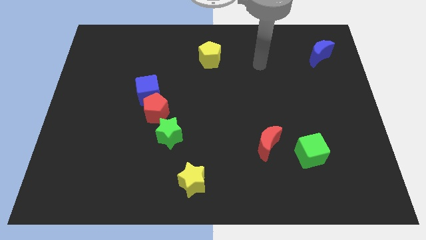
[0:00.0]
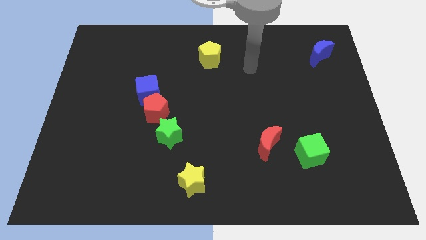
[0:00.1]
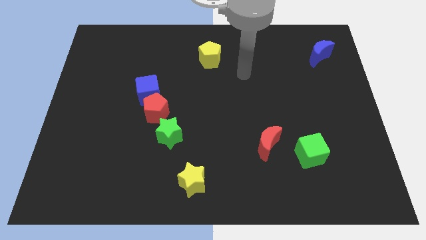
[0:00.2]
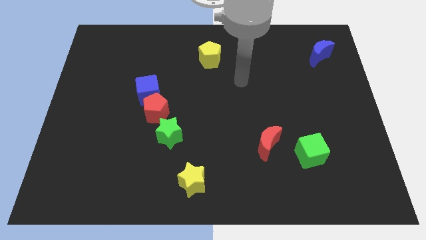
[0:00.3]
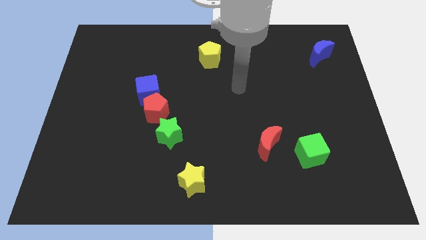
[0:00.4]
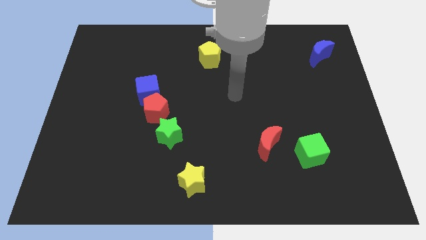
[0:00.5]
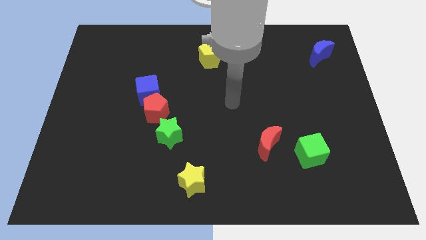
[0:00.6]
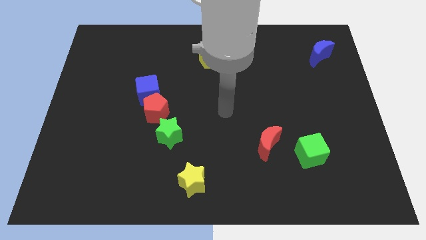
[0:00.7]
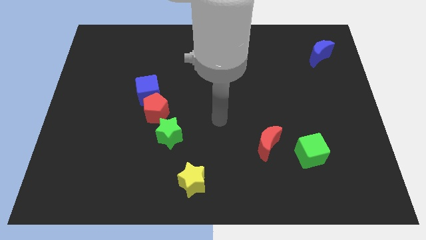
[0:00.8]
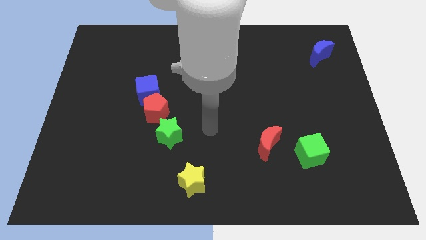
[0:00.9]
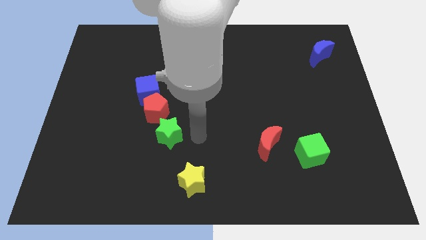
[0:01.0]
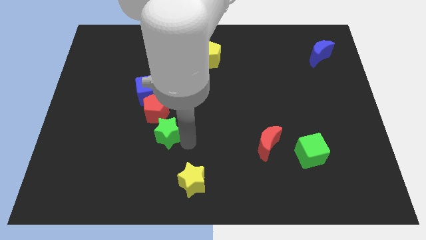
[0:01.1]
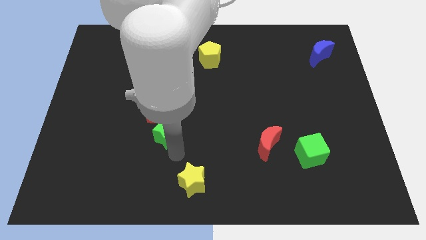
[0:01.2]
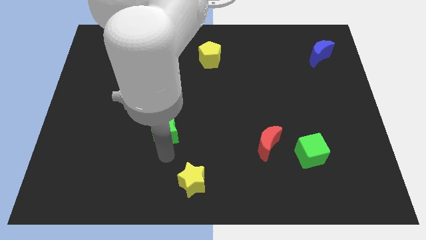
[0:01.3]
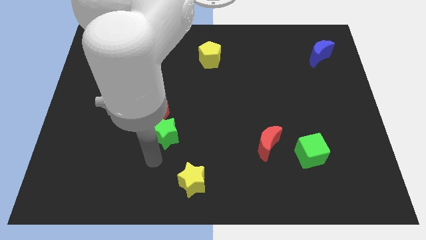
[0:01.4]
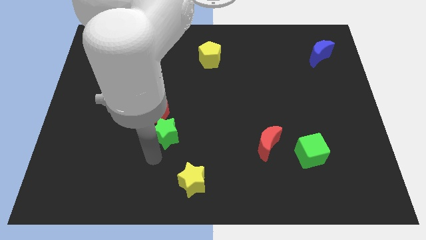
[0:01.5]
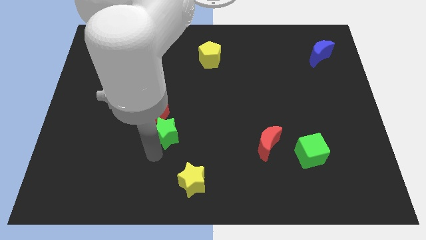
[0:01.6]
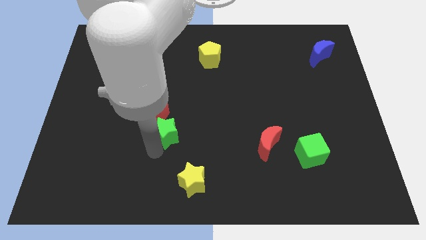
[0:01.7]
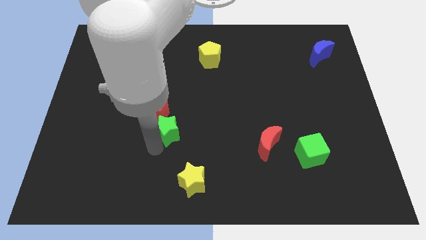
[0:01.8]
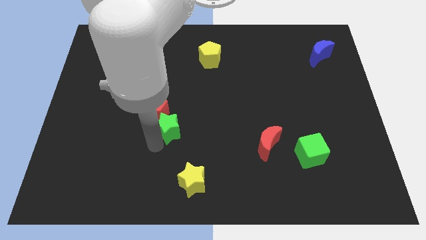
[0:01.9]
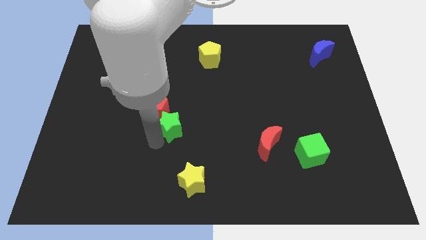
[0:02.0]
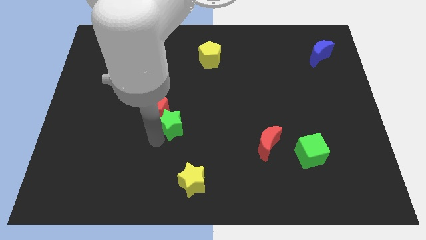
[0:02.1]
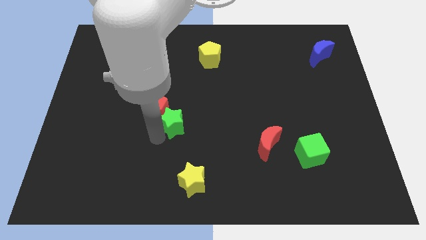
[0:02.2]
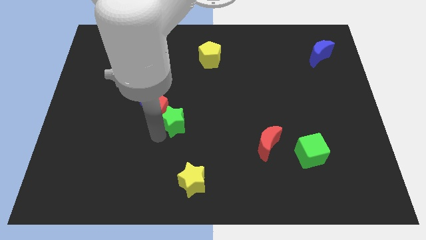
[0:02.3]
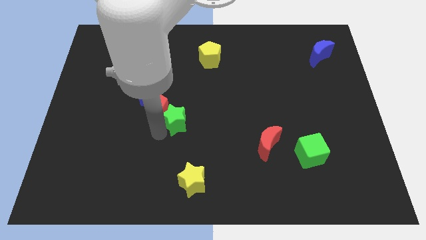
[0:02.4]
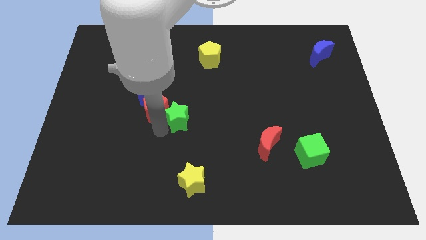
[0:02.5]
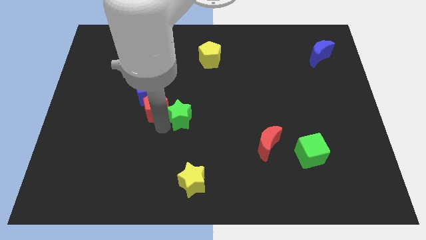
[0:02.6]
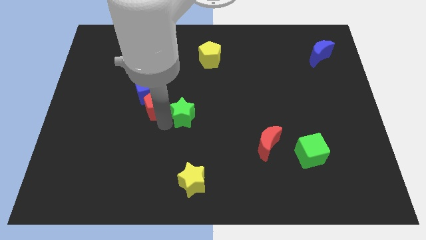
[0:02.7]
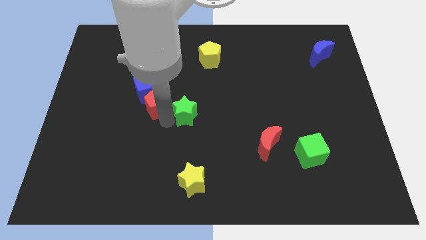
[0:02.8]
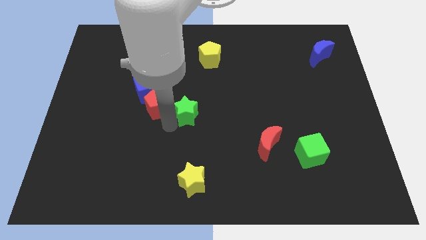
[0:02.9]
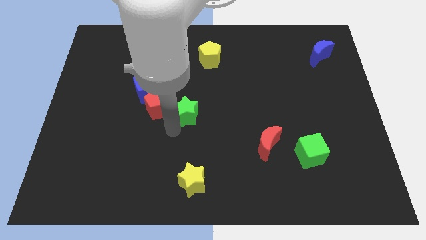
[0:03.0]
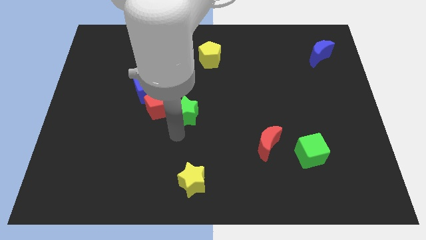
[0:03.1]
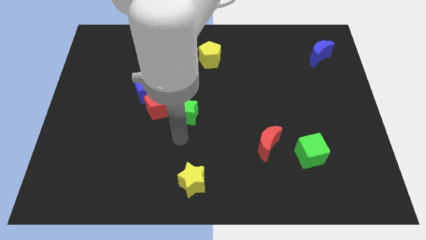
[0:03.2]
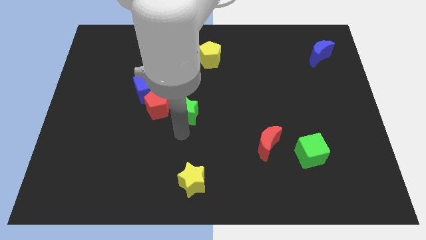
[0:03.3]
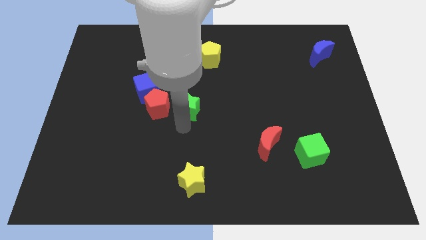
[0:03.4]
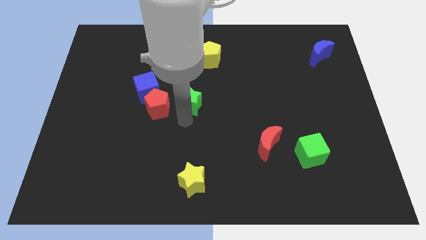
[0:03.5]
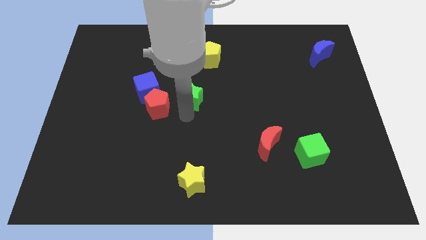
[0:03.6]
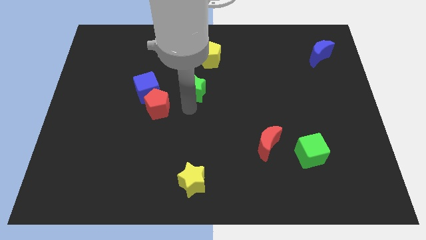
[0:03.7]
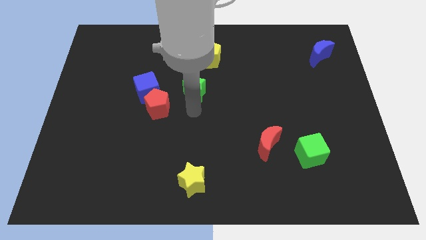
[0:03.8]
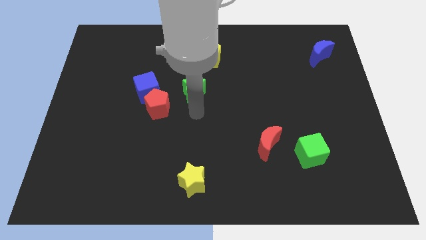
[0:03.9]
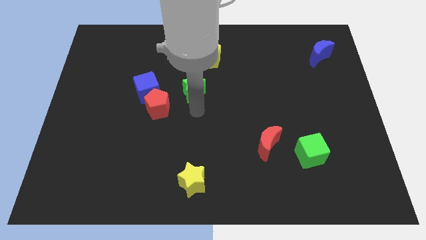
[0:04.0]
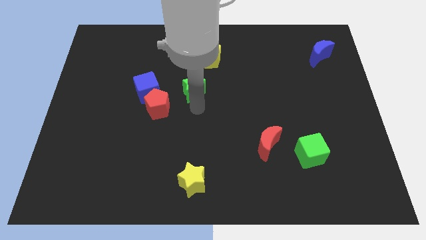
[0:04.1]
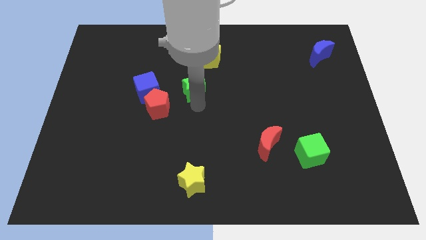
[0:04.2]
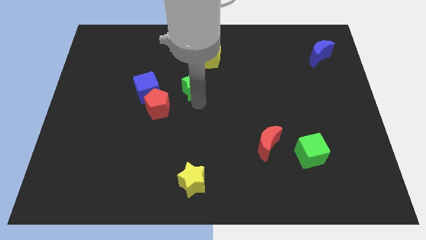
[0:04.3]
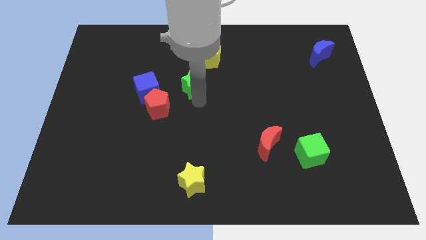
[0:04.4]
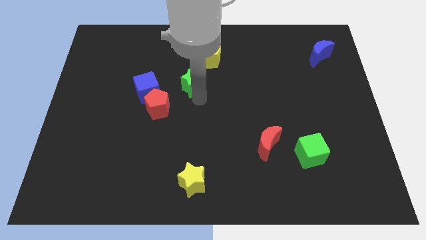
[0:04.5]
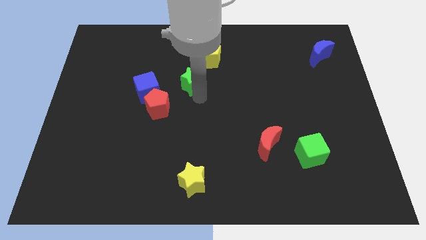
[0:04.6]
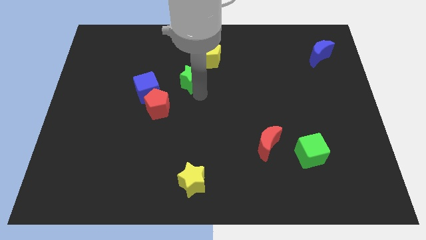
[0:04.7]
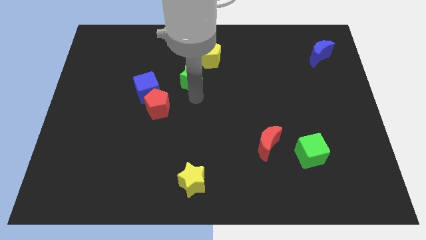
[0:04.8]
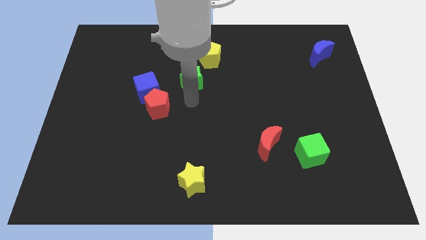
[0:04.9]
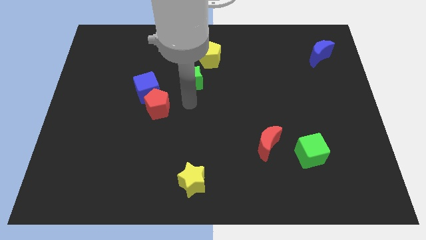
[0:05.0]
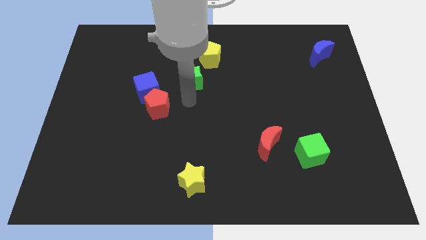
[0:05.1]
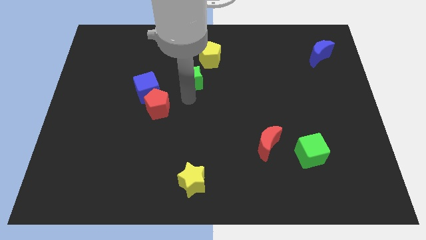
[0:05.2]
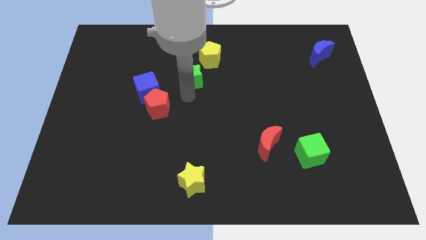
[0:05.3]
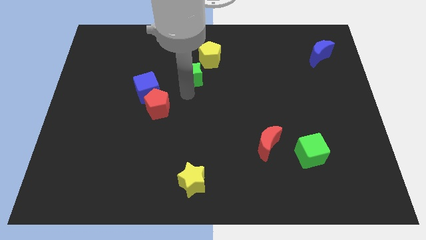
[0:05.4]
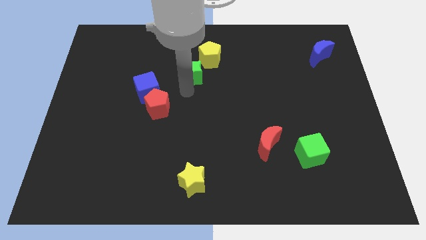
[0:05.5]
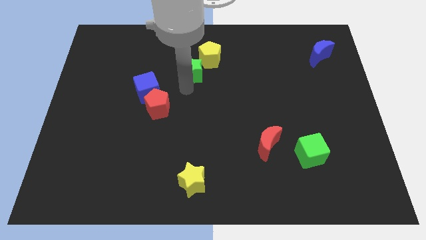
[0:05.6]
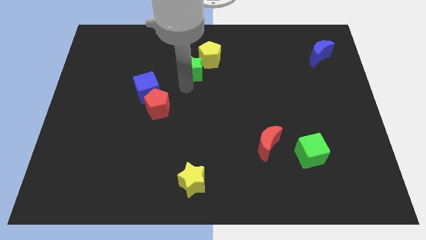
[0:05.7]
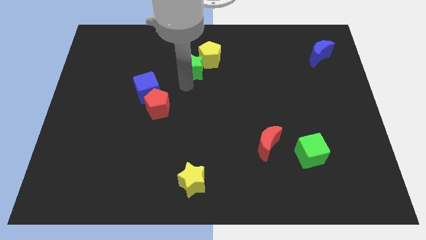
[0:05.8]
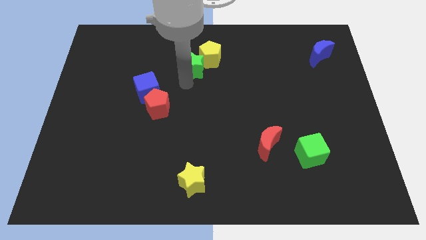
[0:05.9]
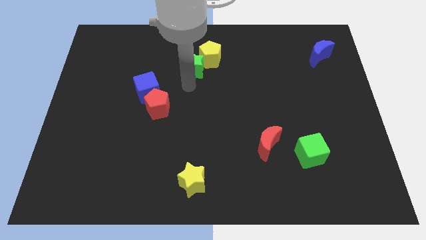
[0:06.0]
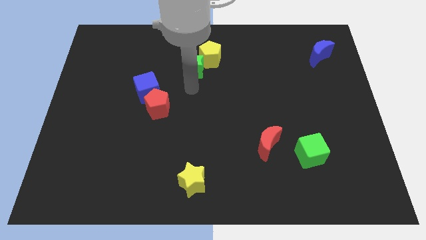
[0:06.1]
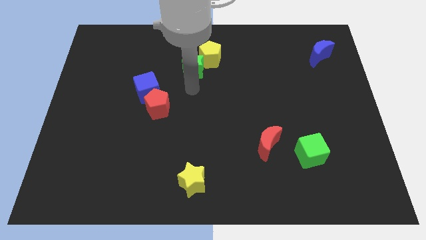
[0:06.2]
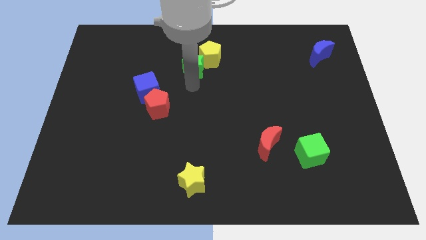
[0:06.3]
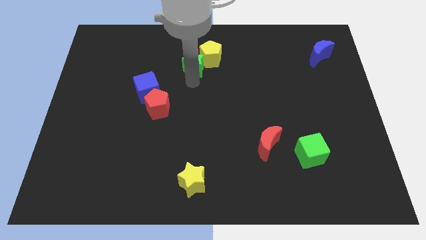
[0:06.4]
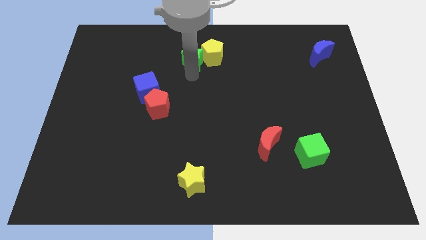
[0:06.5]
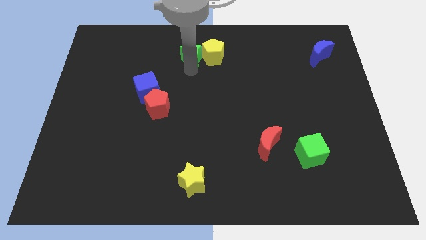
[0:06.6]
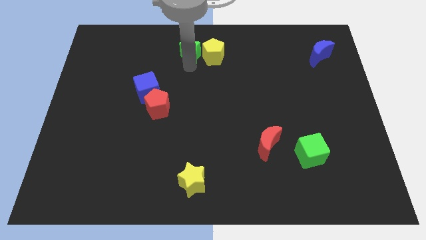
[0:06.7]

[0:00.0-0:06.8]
put the green star to the towards your base
